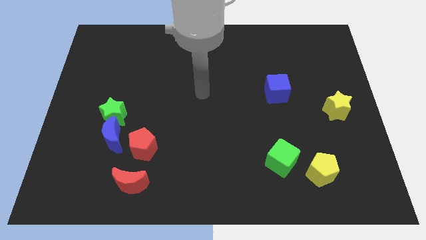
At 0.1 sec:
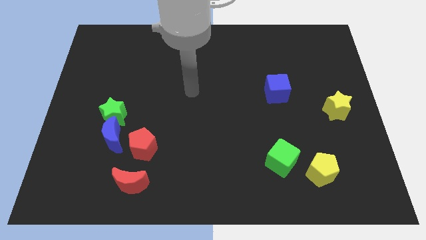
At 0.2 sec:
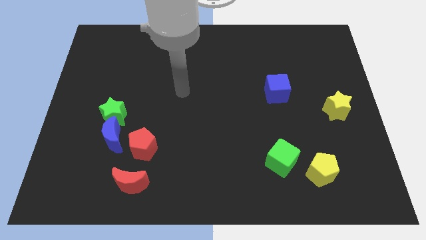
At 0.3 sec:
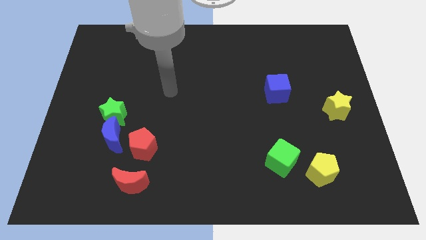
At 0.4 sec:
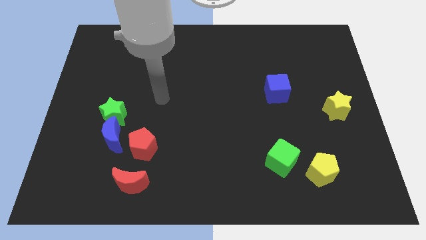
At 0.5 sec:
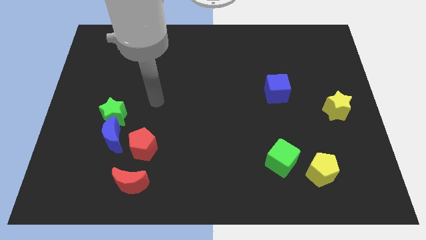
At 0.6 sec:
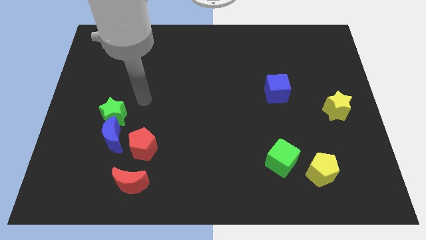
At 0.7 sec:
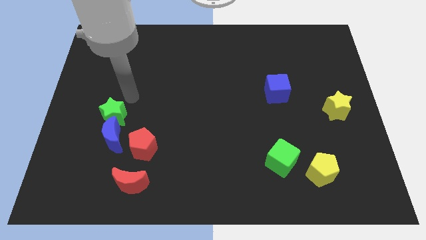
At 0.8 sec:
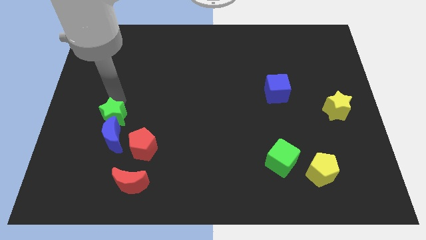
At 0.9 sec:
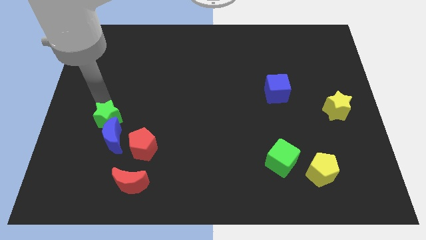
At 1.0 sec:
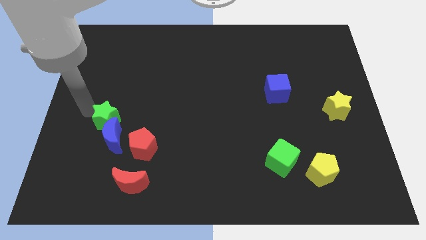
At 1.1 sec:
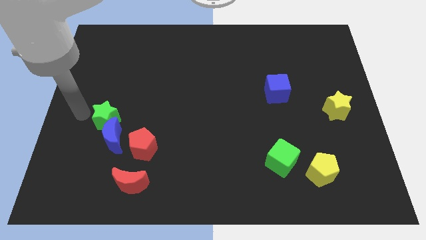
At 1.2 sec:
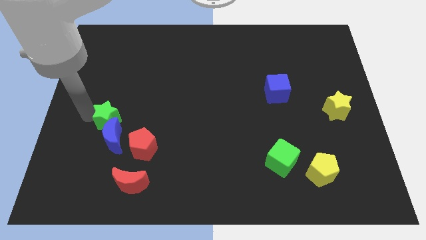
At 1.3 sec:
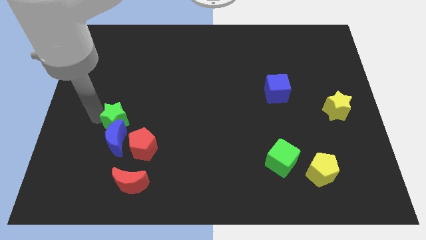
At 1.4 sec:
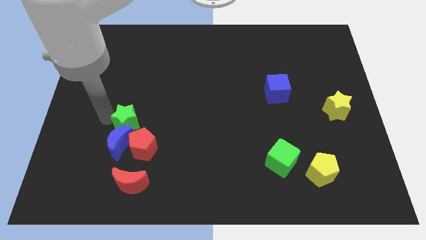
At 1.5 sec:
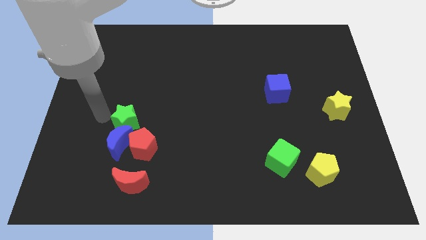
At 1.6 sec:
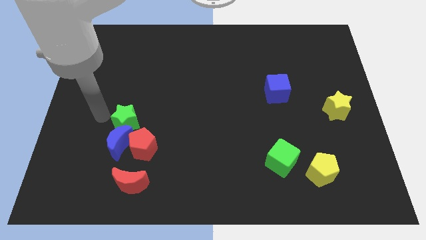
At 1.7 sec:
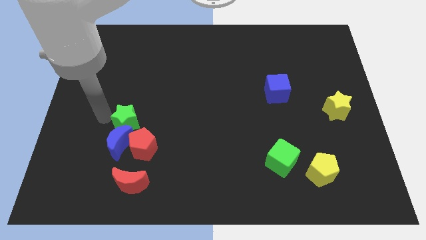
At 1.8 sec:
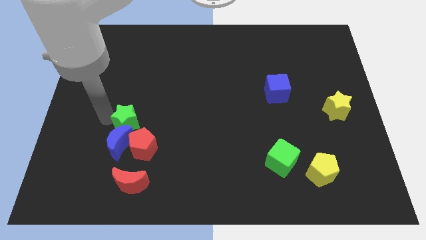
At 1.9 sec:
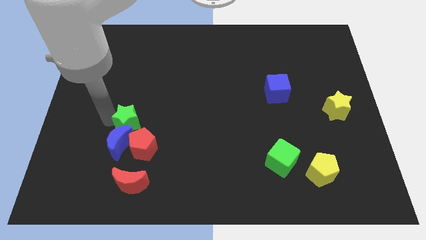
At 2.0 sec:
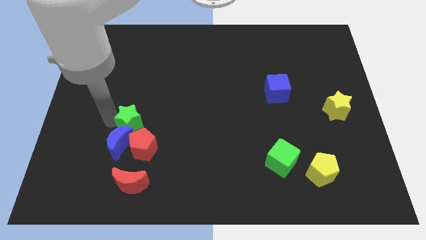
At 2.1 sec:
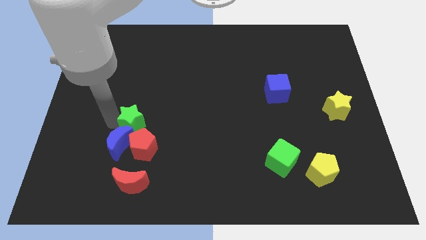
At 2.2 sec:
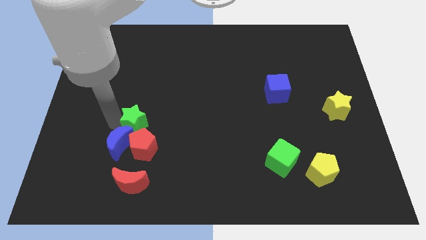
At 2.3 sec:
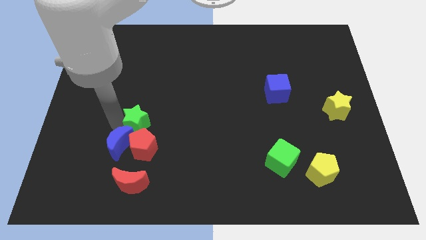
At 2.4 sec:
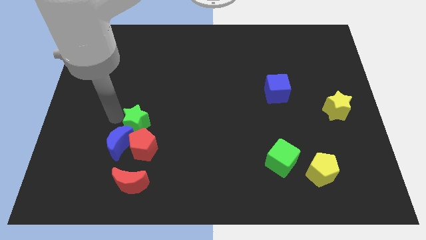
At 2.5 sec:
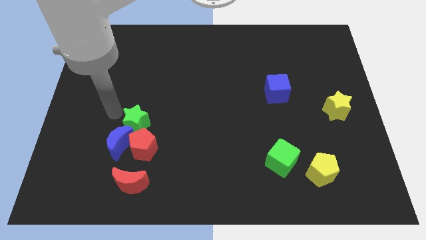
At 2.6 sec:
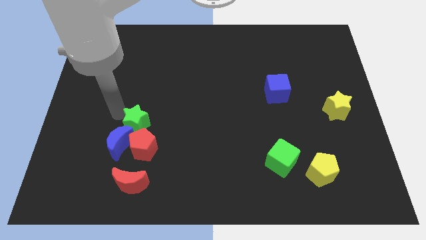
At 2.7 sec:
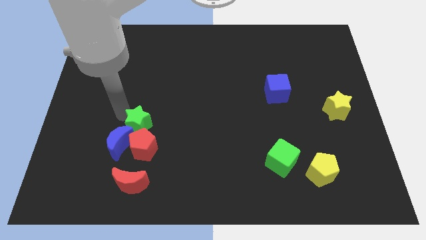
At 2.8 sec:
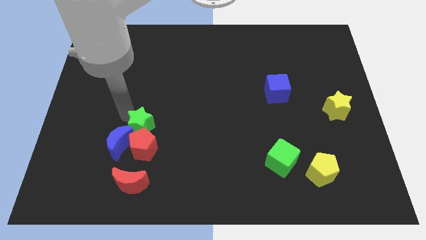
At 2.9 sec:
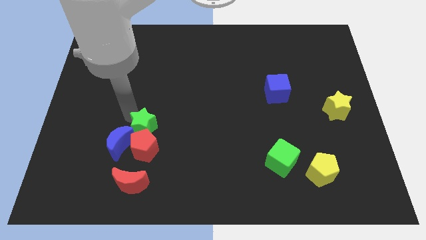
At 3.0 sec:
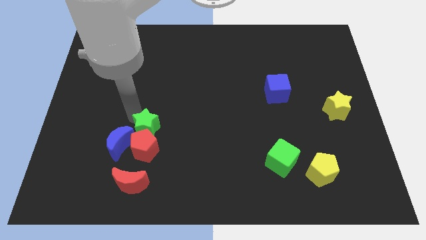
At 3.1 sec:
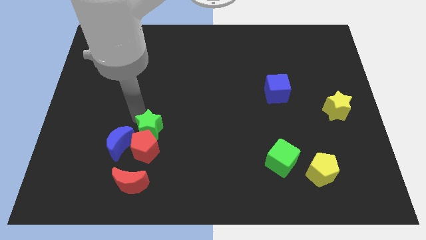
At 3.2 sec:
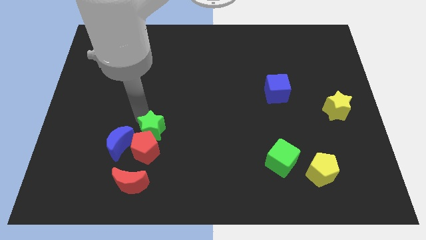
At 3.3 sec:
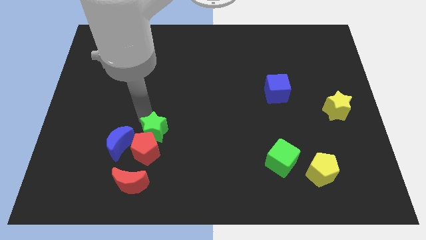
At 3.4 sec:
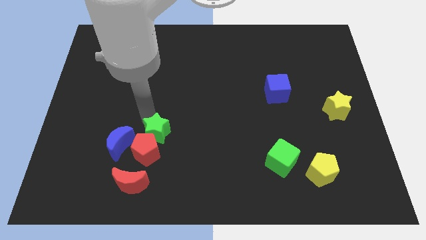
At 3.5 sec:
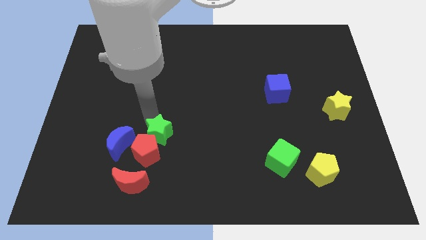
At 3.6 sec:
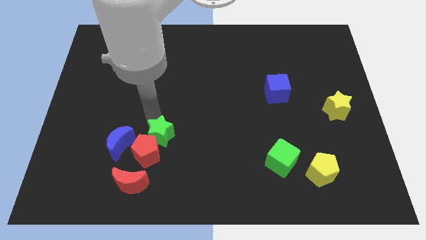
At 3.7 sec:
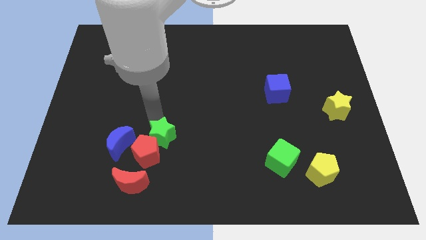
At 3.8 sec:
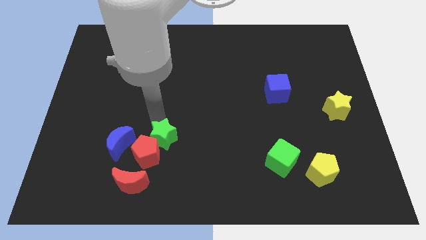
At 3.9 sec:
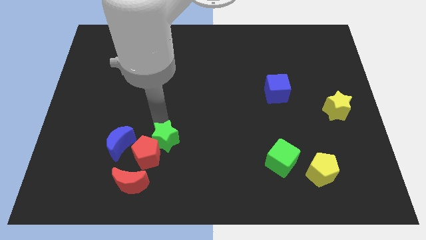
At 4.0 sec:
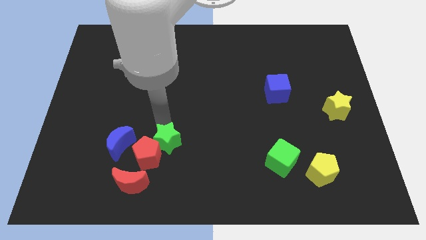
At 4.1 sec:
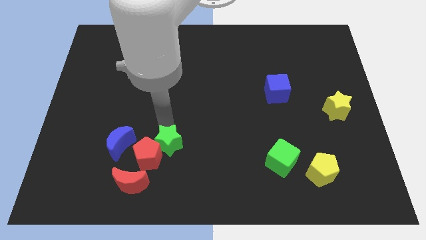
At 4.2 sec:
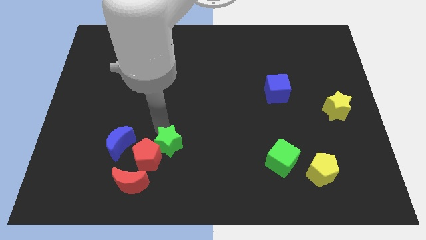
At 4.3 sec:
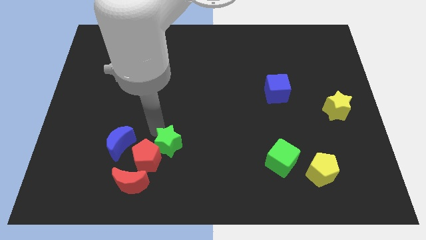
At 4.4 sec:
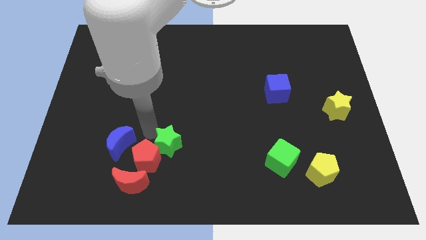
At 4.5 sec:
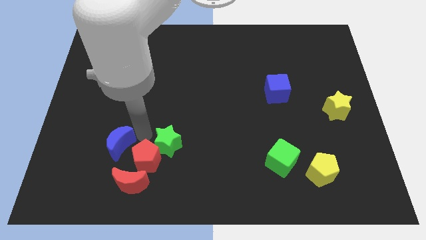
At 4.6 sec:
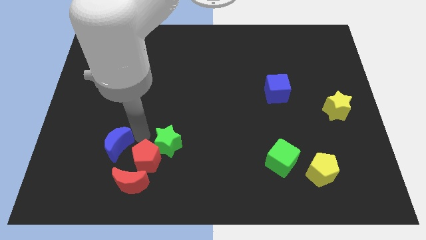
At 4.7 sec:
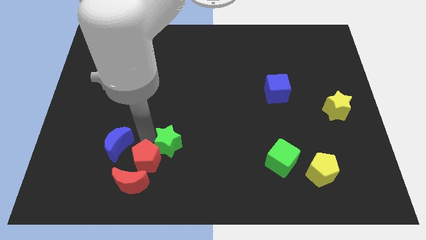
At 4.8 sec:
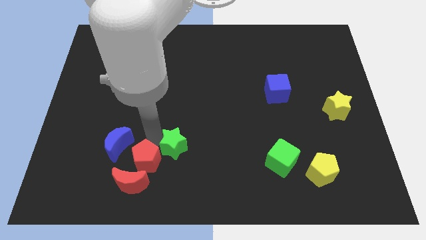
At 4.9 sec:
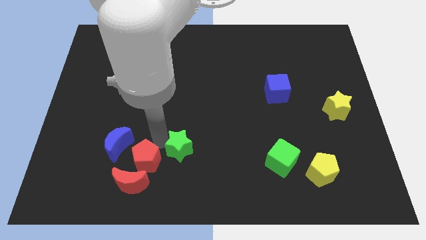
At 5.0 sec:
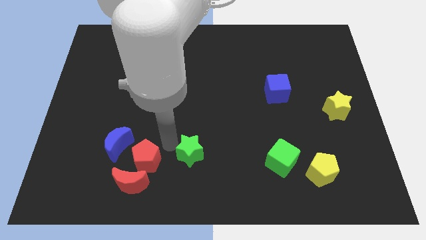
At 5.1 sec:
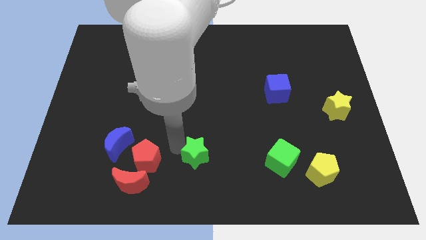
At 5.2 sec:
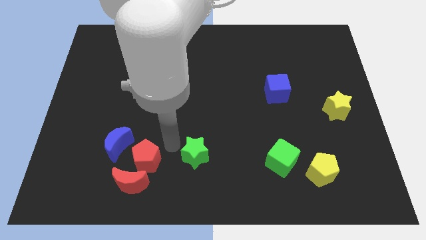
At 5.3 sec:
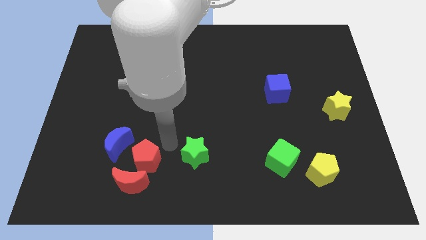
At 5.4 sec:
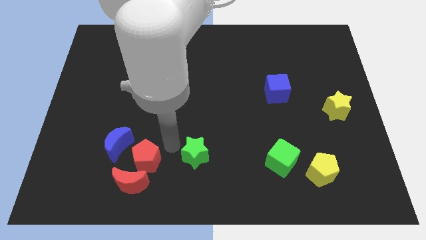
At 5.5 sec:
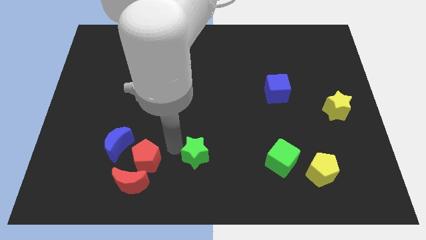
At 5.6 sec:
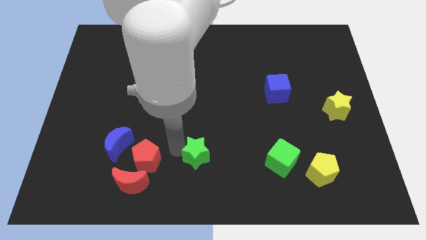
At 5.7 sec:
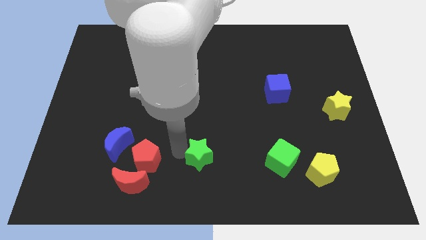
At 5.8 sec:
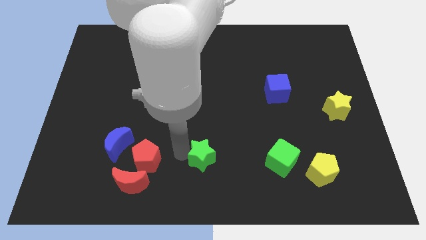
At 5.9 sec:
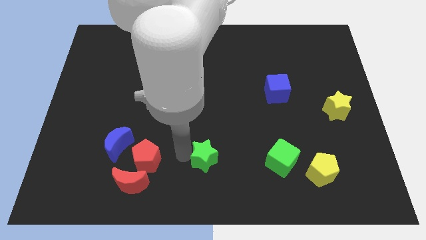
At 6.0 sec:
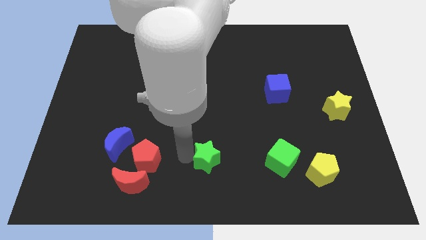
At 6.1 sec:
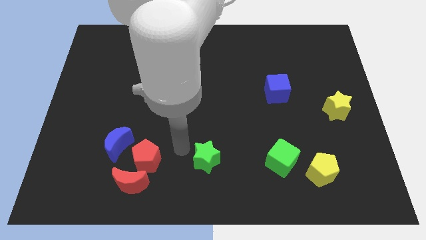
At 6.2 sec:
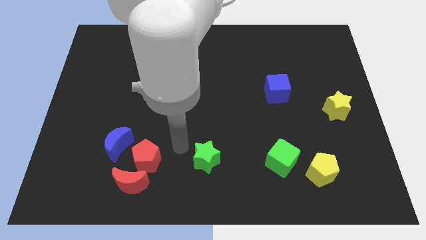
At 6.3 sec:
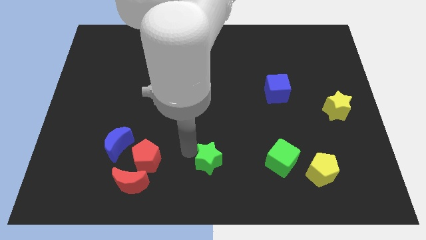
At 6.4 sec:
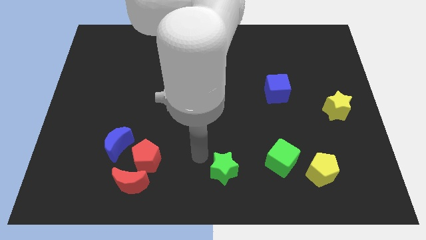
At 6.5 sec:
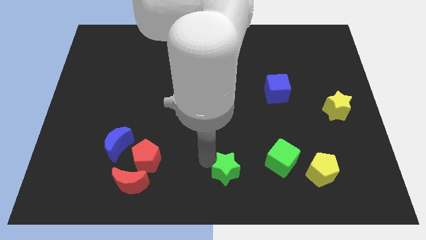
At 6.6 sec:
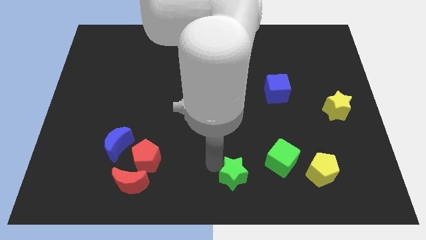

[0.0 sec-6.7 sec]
move the green star diagonally down and to the left of the green cube
